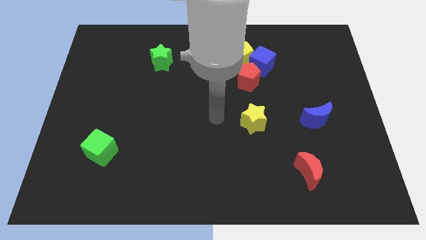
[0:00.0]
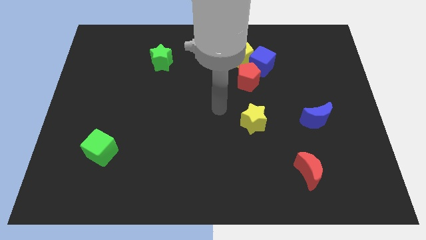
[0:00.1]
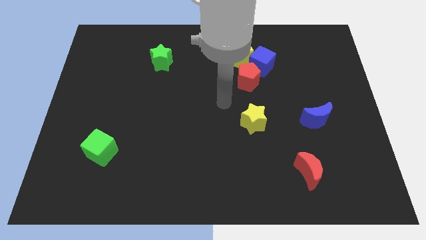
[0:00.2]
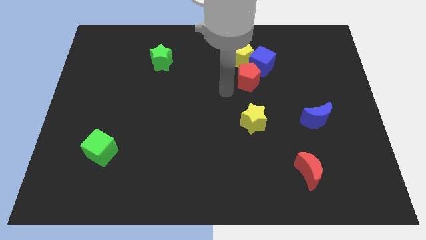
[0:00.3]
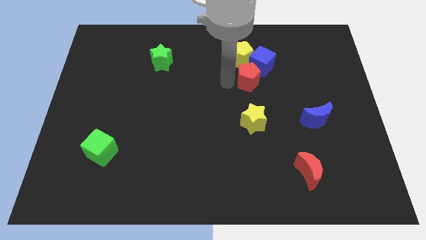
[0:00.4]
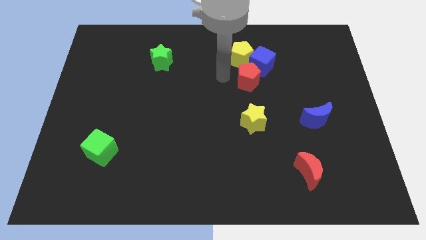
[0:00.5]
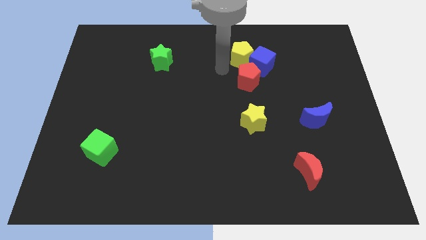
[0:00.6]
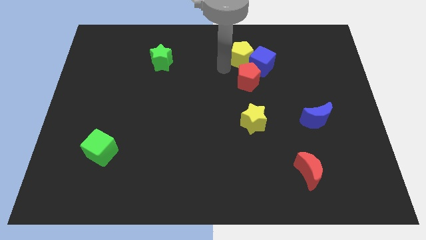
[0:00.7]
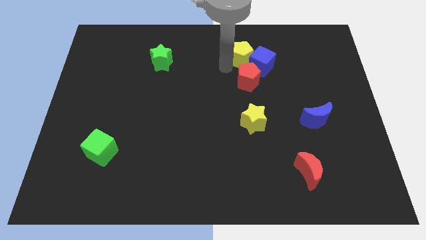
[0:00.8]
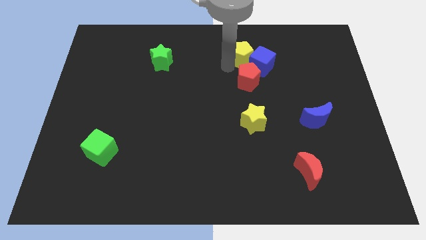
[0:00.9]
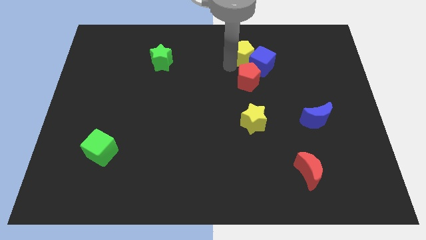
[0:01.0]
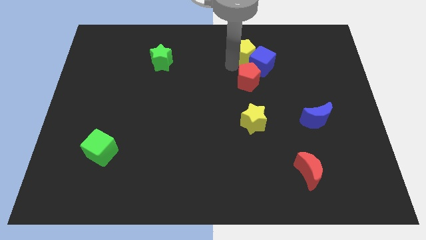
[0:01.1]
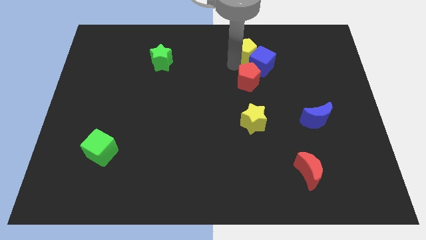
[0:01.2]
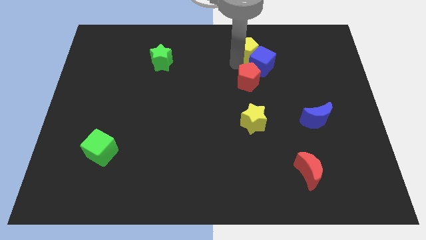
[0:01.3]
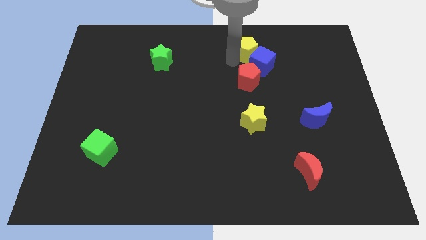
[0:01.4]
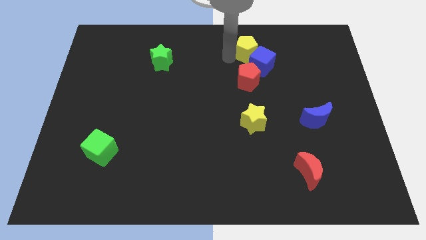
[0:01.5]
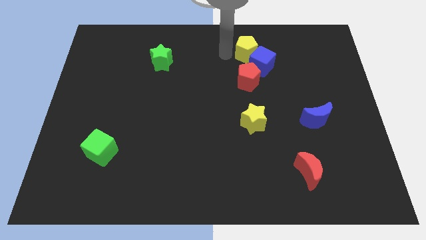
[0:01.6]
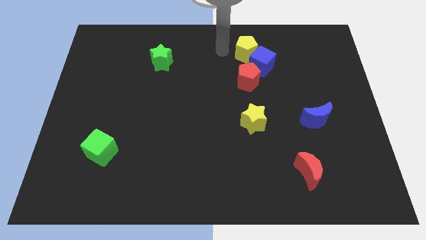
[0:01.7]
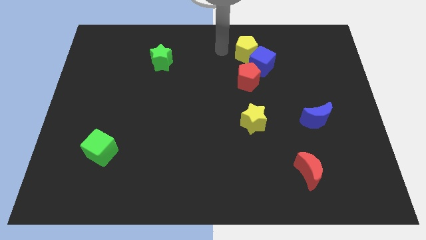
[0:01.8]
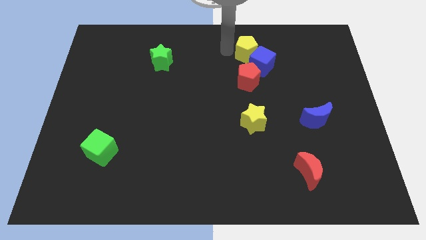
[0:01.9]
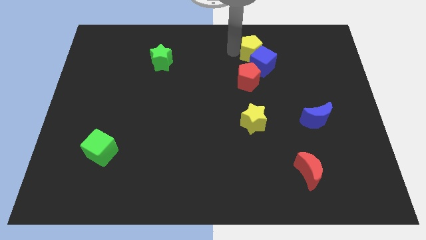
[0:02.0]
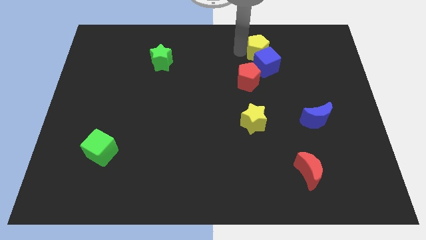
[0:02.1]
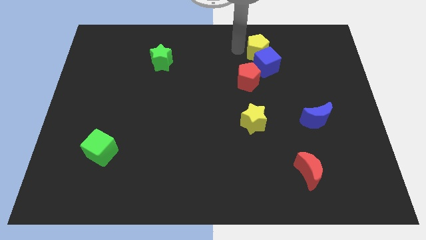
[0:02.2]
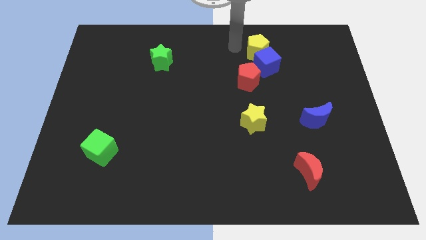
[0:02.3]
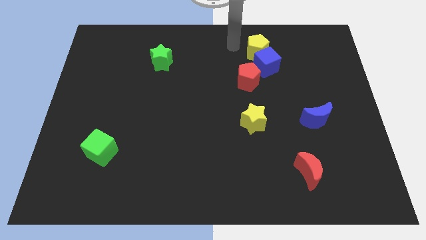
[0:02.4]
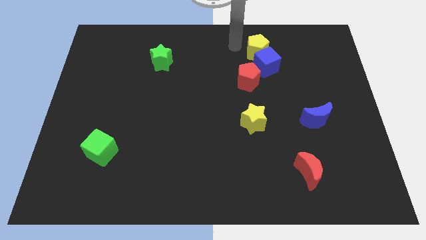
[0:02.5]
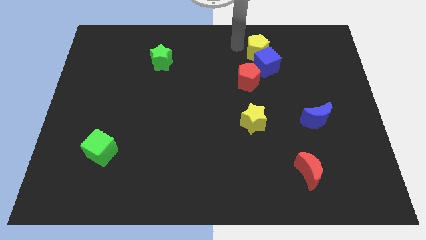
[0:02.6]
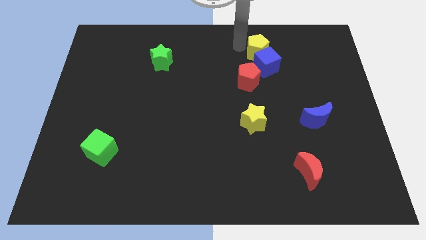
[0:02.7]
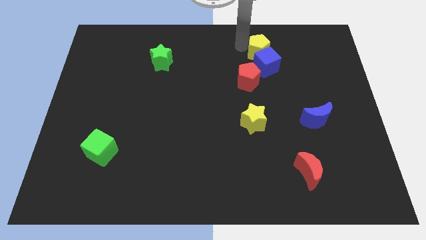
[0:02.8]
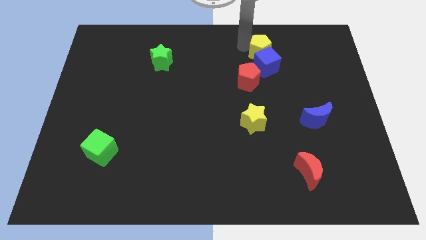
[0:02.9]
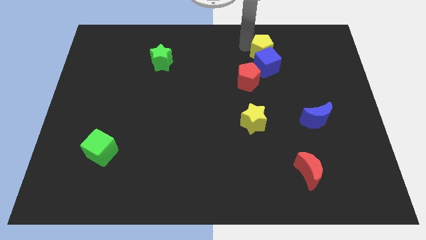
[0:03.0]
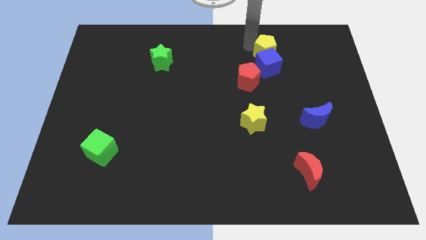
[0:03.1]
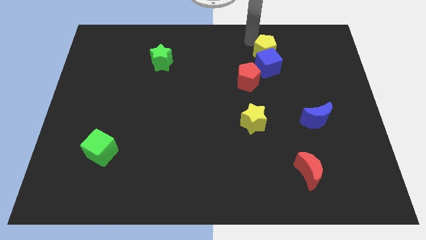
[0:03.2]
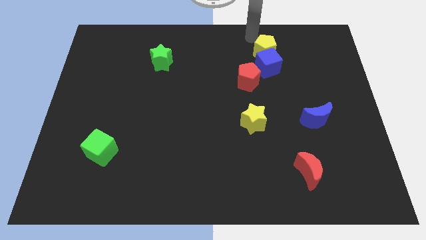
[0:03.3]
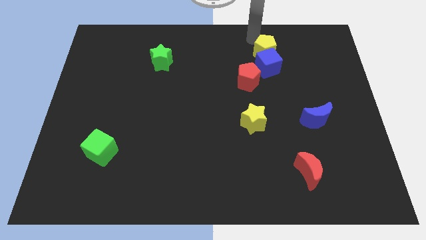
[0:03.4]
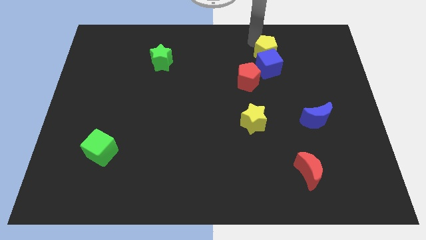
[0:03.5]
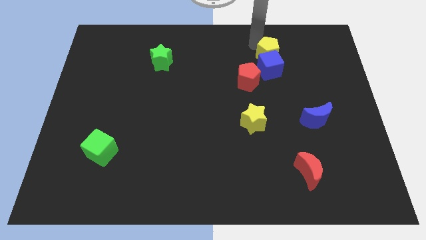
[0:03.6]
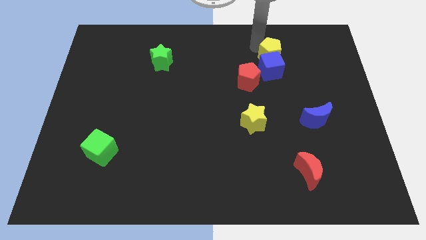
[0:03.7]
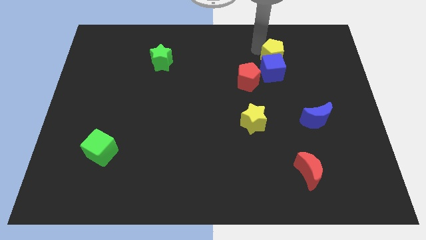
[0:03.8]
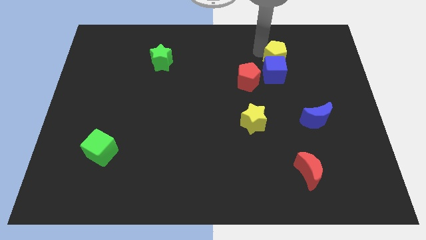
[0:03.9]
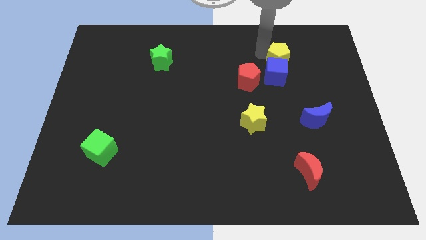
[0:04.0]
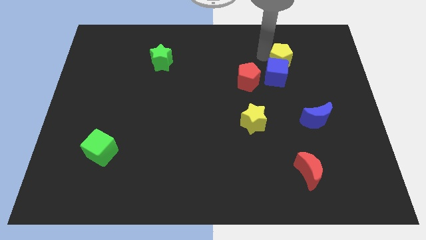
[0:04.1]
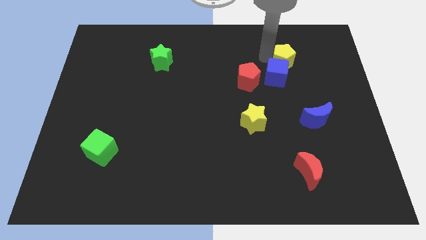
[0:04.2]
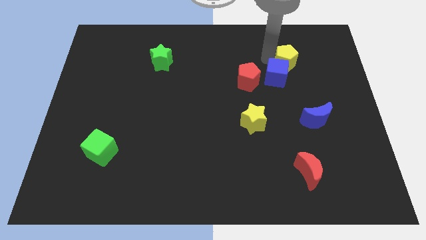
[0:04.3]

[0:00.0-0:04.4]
slide the yellow pentagon downwards and then right a little bit

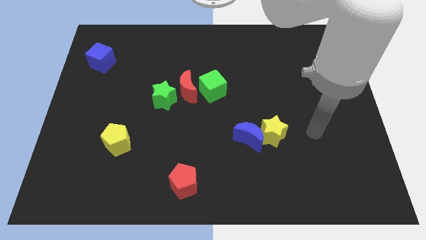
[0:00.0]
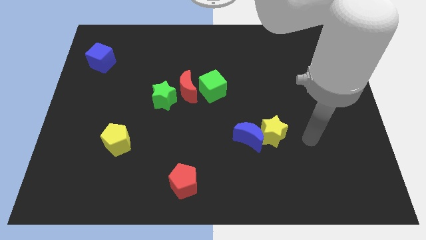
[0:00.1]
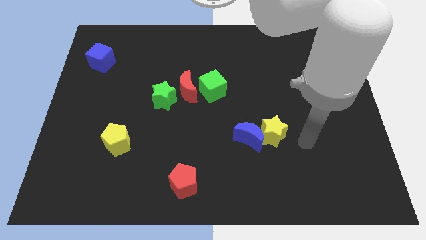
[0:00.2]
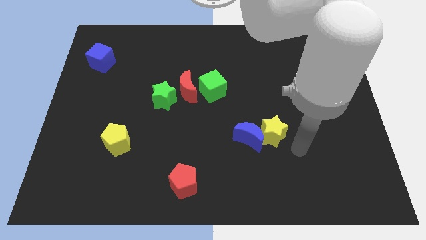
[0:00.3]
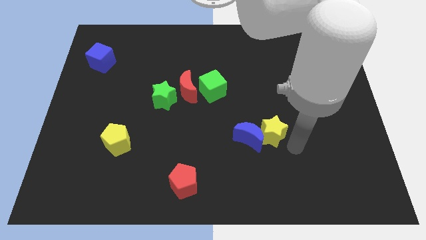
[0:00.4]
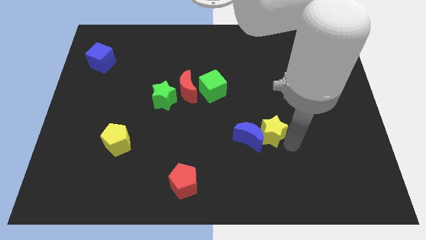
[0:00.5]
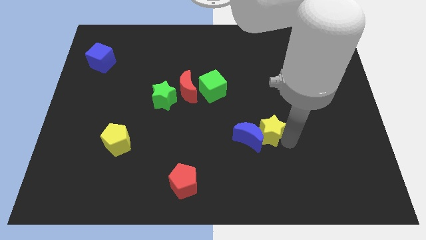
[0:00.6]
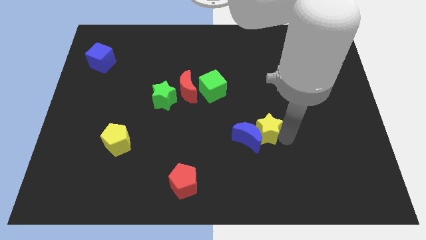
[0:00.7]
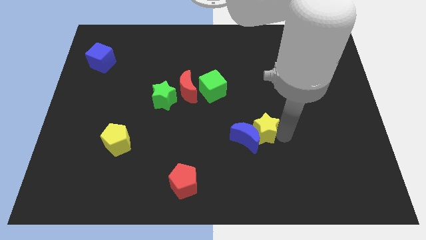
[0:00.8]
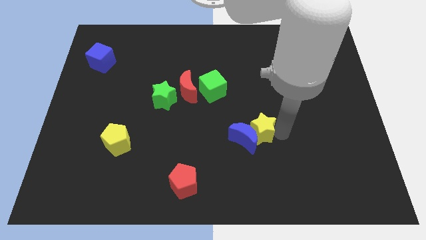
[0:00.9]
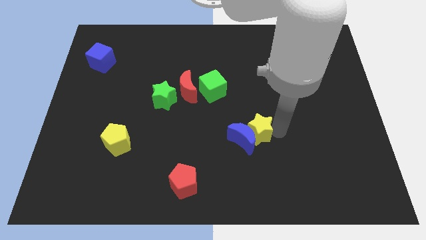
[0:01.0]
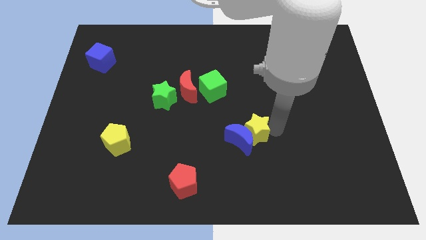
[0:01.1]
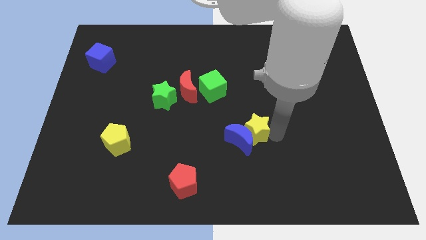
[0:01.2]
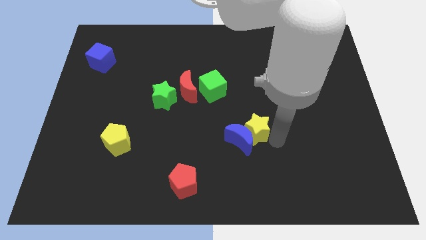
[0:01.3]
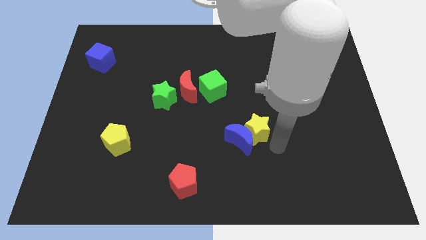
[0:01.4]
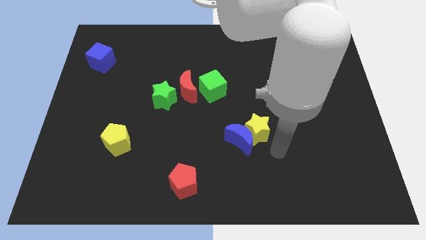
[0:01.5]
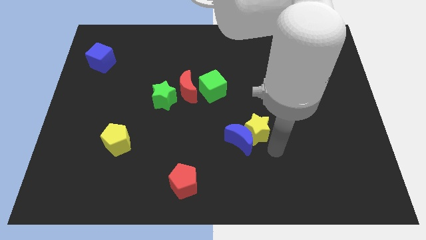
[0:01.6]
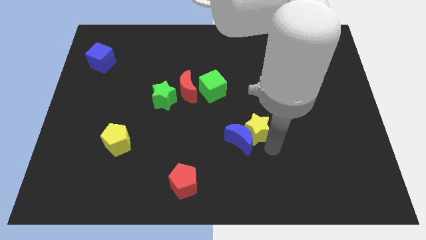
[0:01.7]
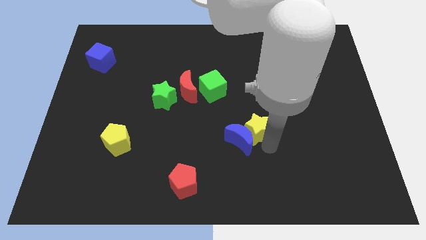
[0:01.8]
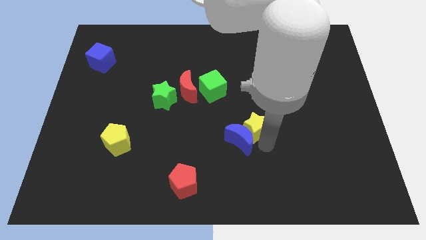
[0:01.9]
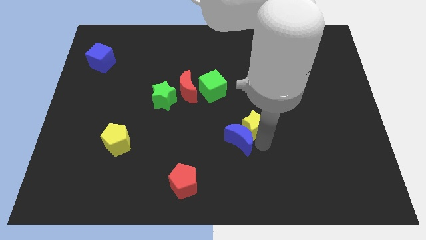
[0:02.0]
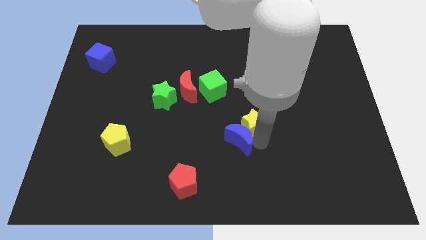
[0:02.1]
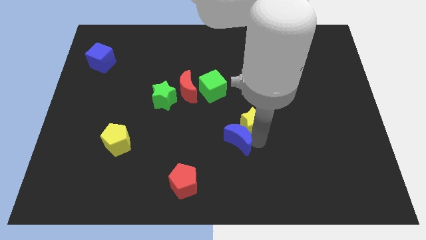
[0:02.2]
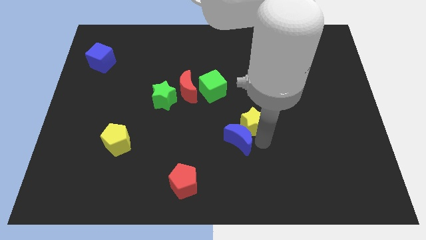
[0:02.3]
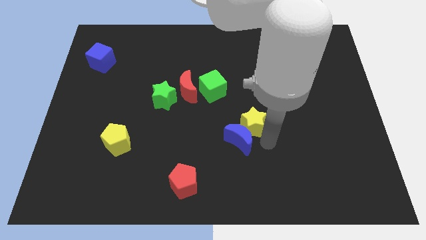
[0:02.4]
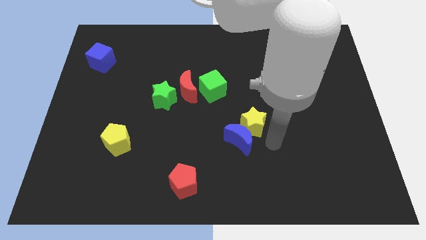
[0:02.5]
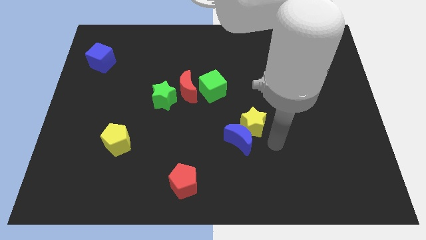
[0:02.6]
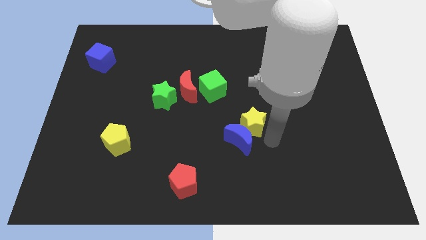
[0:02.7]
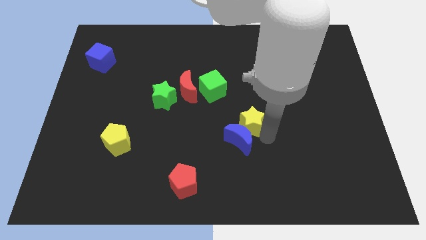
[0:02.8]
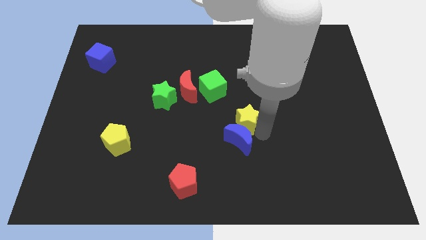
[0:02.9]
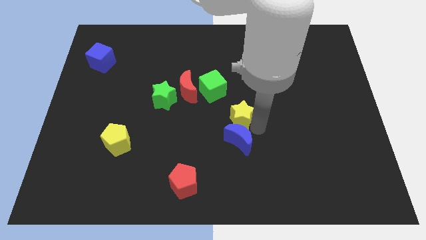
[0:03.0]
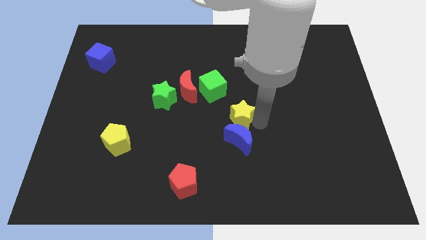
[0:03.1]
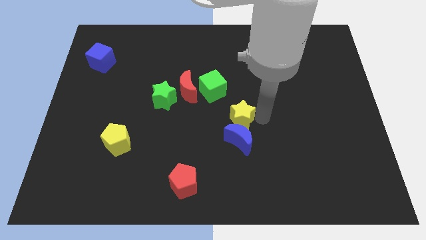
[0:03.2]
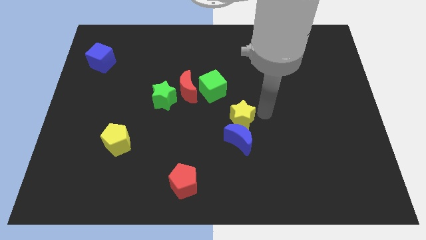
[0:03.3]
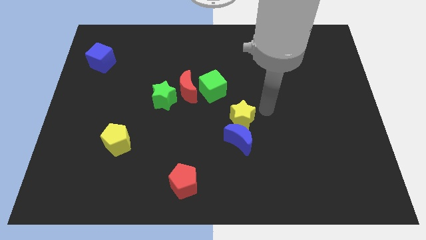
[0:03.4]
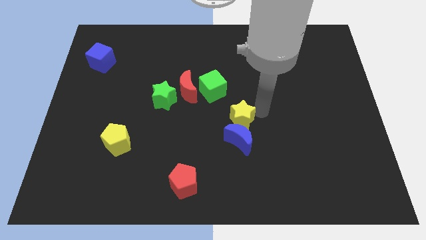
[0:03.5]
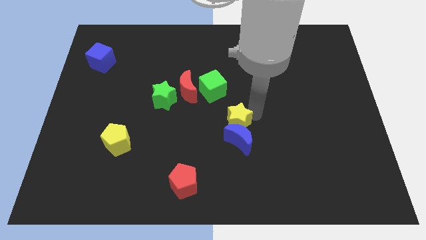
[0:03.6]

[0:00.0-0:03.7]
slightly push the yellow star left
